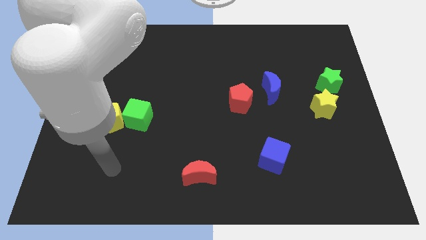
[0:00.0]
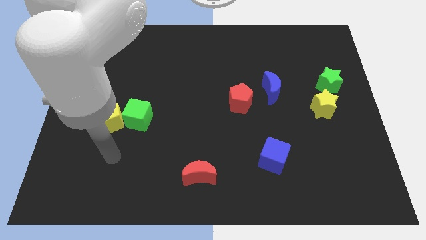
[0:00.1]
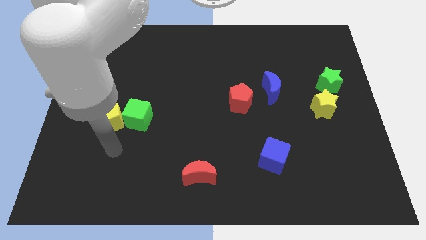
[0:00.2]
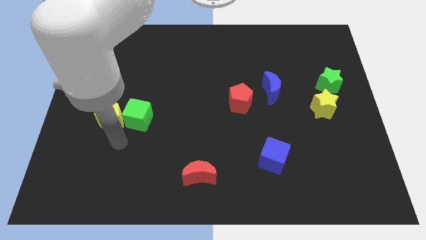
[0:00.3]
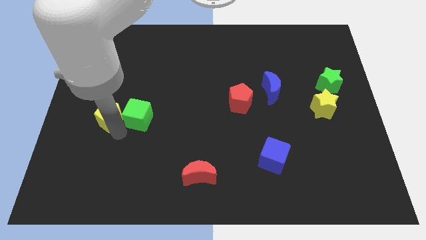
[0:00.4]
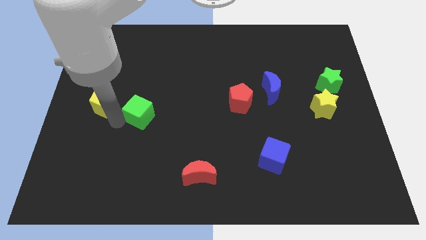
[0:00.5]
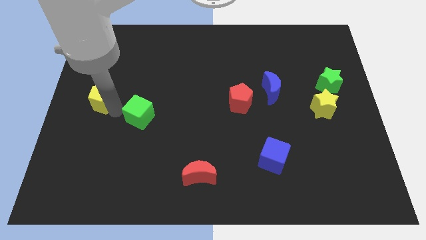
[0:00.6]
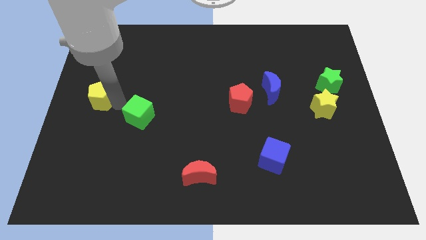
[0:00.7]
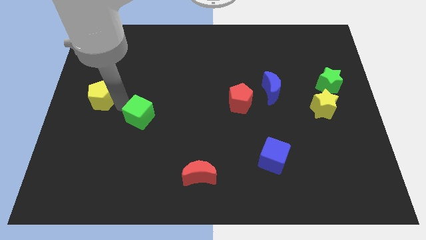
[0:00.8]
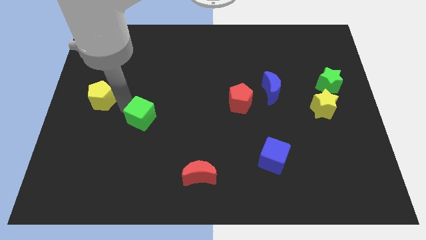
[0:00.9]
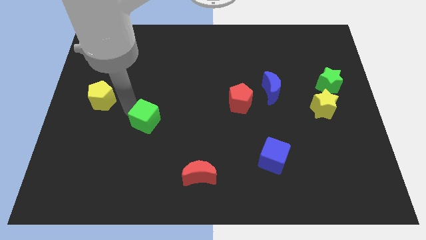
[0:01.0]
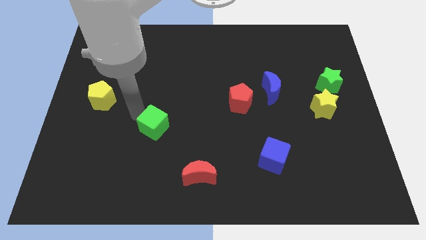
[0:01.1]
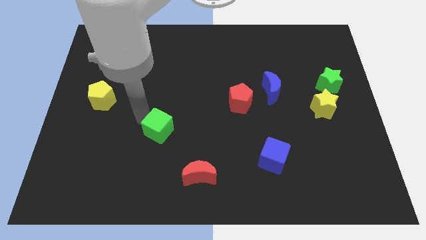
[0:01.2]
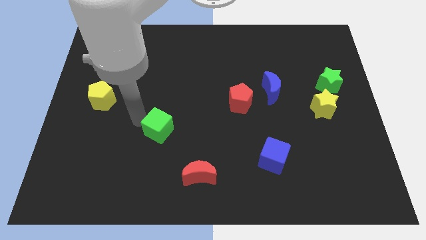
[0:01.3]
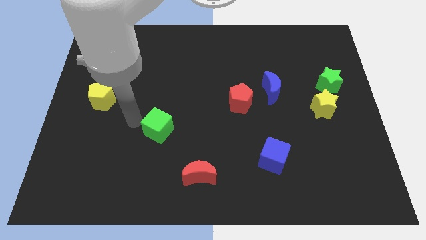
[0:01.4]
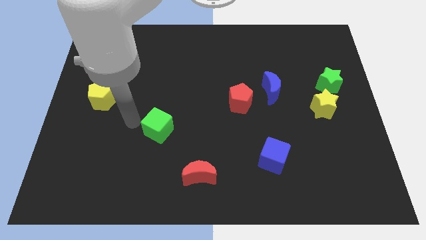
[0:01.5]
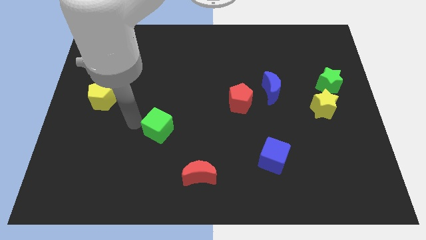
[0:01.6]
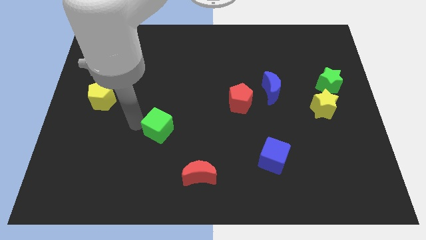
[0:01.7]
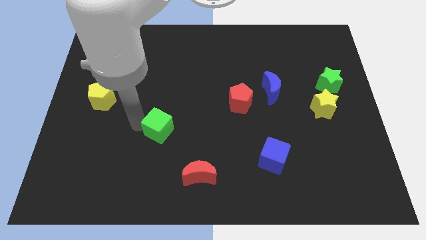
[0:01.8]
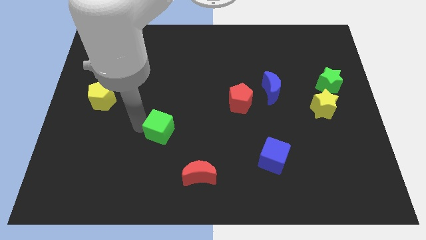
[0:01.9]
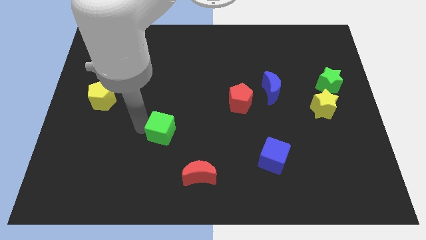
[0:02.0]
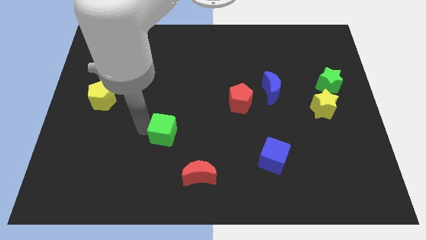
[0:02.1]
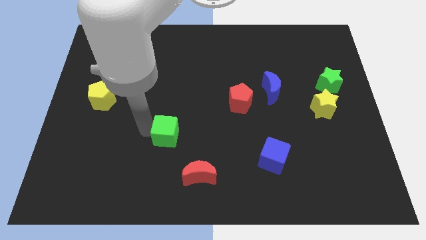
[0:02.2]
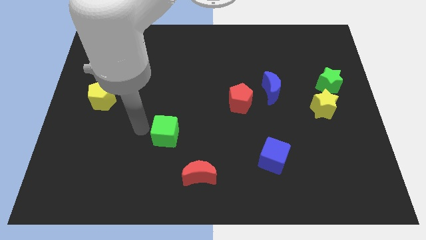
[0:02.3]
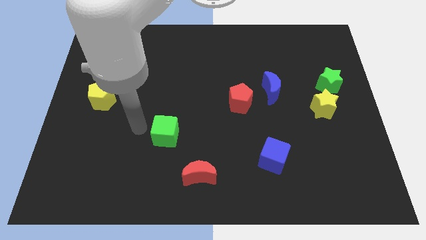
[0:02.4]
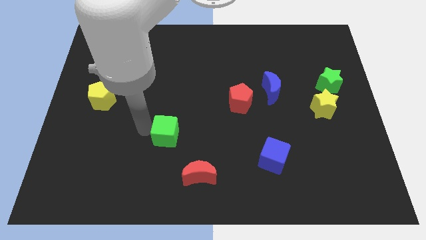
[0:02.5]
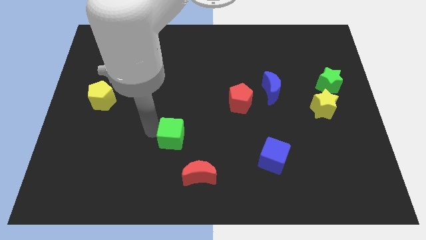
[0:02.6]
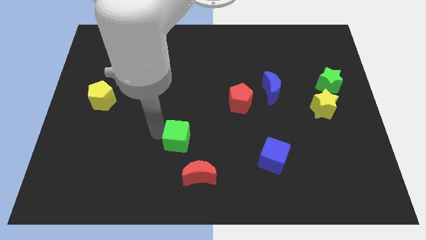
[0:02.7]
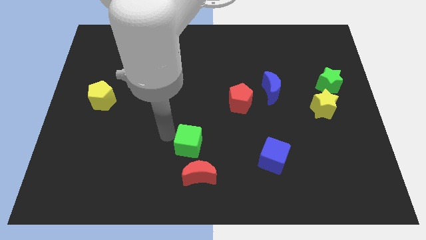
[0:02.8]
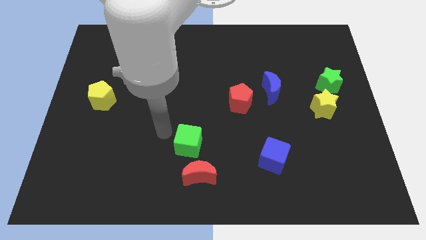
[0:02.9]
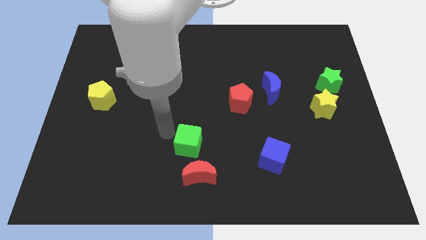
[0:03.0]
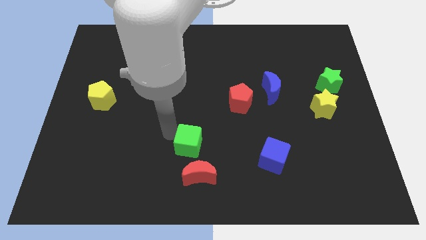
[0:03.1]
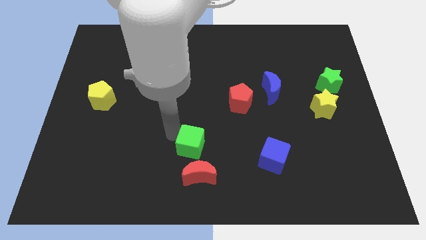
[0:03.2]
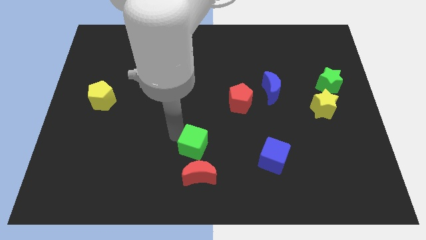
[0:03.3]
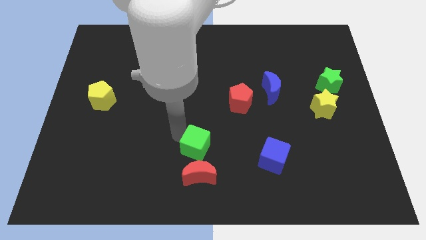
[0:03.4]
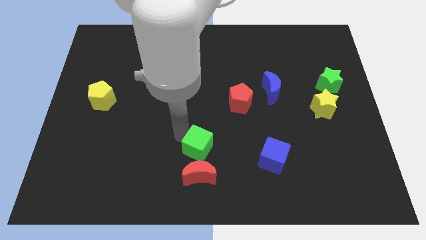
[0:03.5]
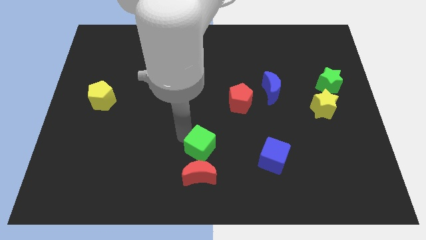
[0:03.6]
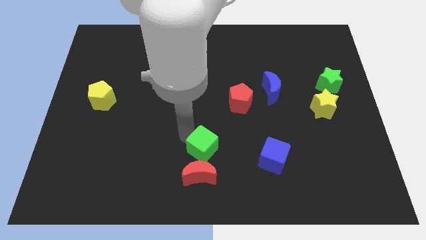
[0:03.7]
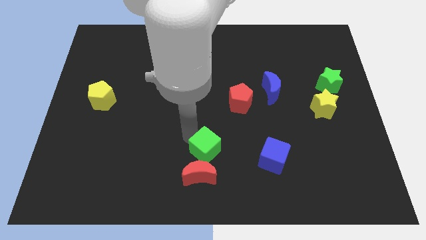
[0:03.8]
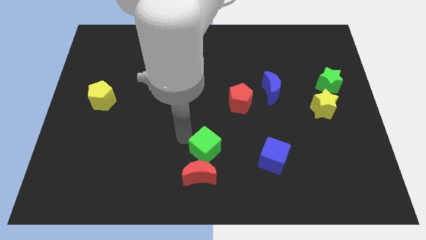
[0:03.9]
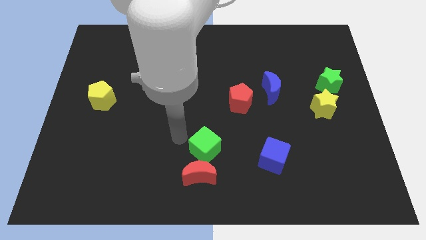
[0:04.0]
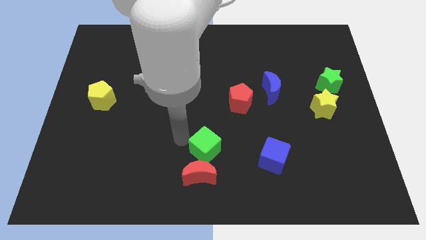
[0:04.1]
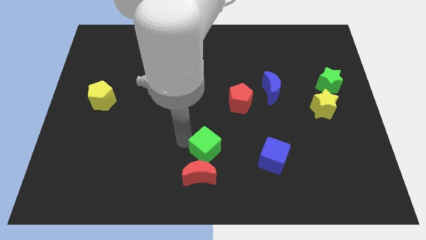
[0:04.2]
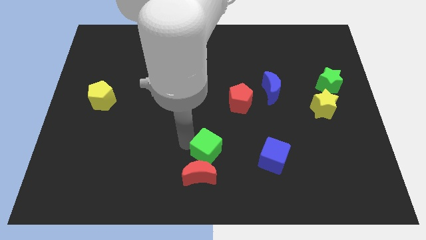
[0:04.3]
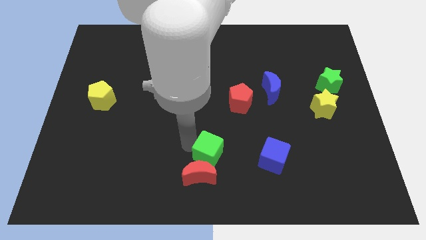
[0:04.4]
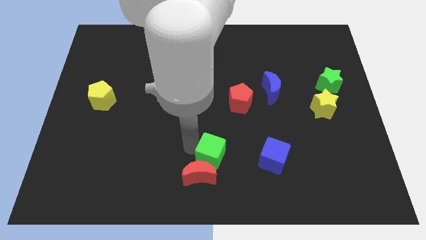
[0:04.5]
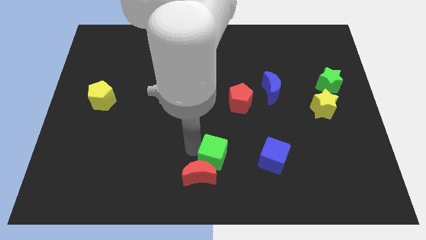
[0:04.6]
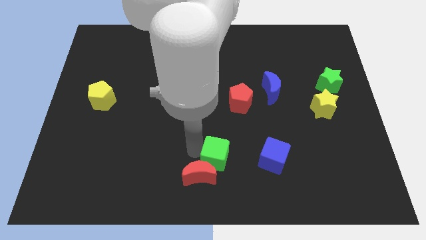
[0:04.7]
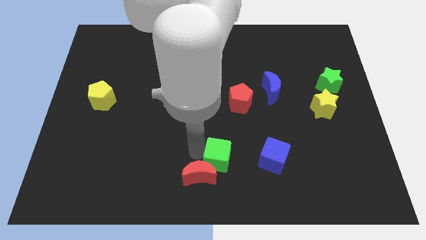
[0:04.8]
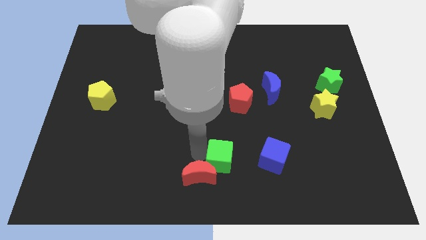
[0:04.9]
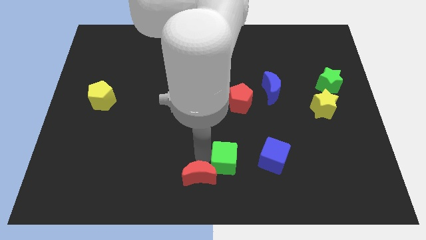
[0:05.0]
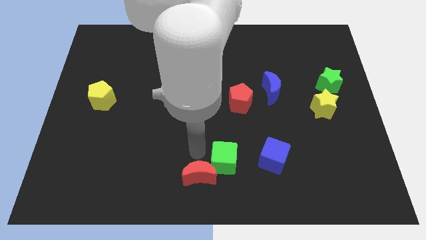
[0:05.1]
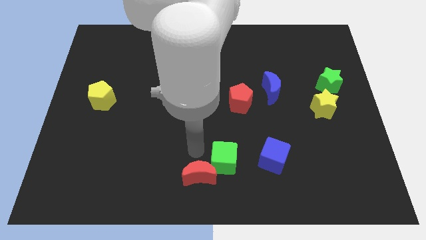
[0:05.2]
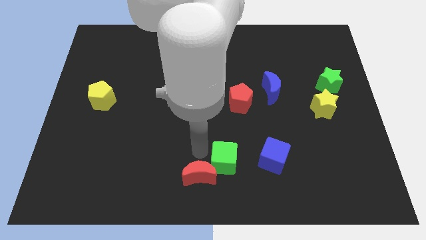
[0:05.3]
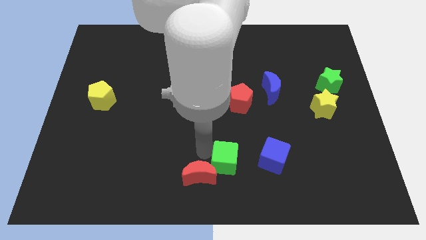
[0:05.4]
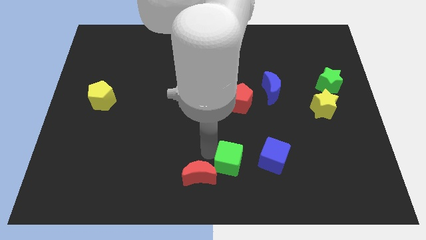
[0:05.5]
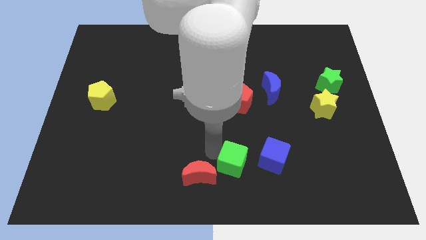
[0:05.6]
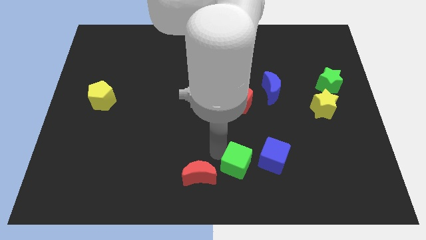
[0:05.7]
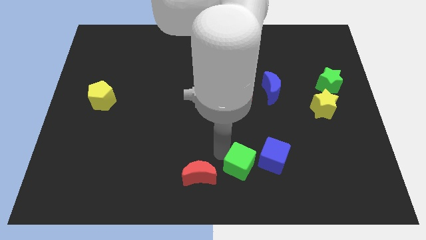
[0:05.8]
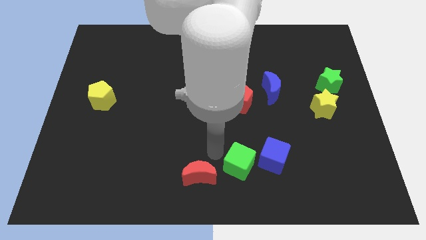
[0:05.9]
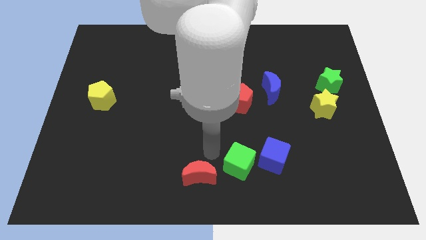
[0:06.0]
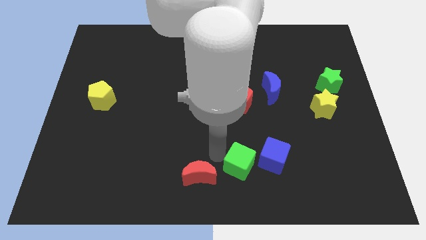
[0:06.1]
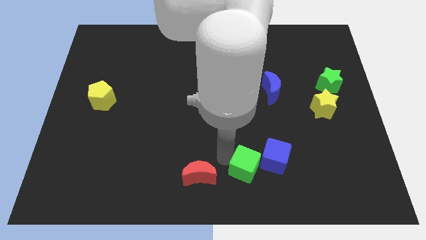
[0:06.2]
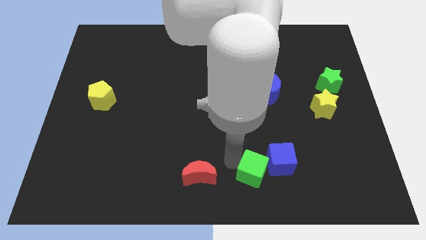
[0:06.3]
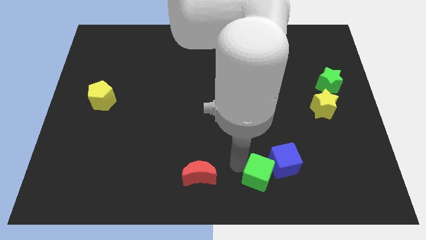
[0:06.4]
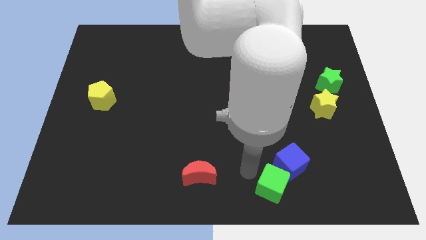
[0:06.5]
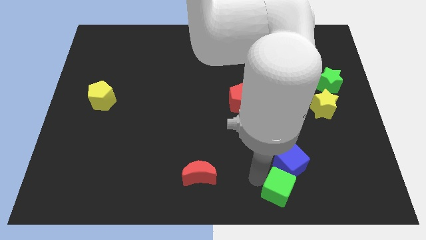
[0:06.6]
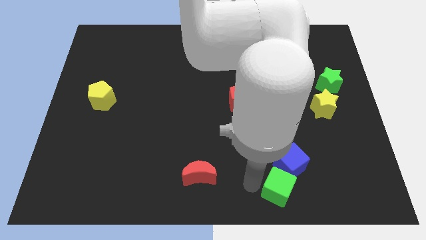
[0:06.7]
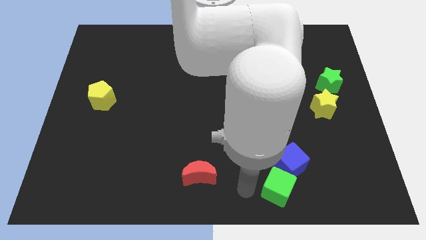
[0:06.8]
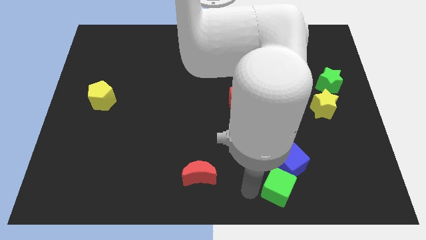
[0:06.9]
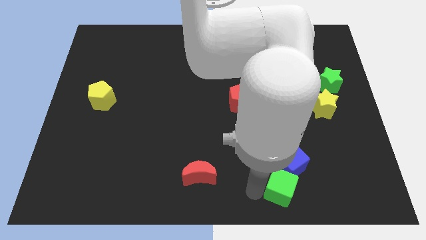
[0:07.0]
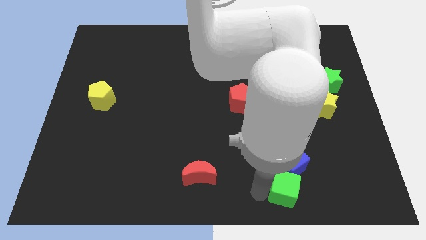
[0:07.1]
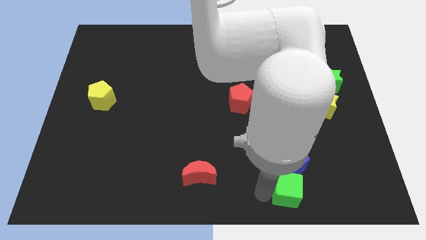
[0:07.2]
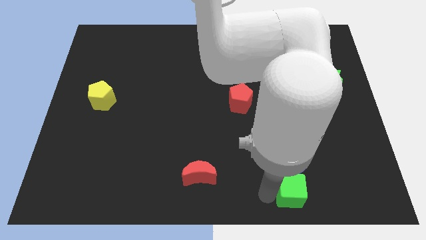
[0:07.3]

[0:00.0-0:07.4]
move the green cube to the bottom right side of the blue cube
